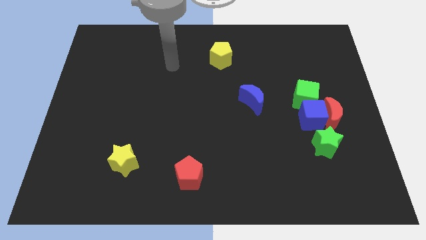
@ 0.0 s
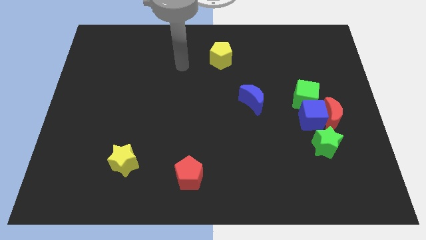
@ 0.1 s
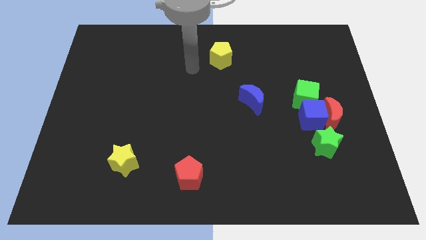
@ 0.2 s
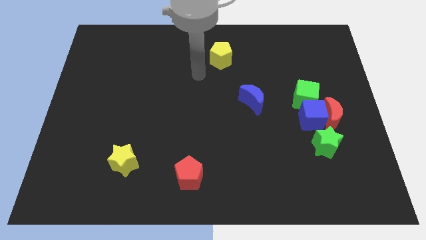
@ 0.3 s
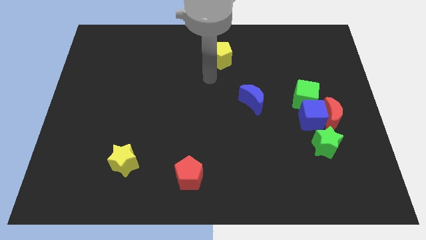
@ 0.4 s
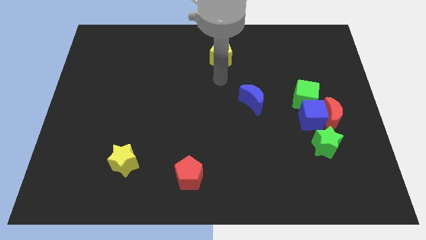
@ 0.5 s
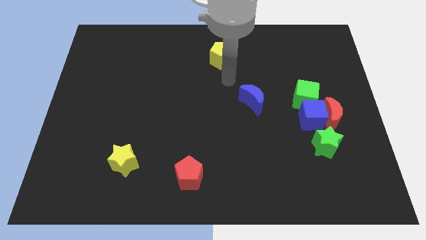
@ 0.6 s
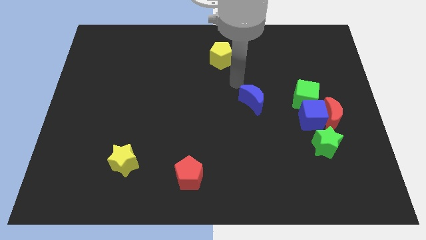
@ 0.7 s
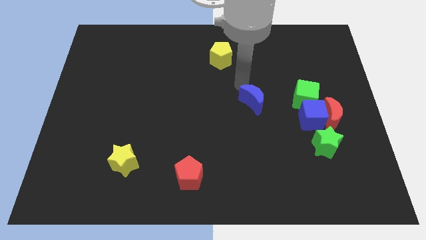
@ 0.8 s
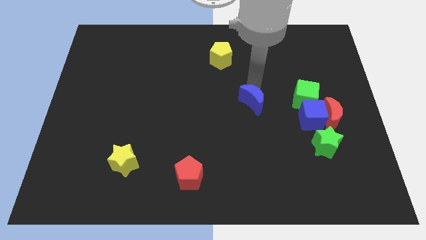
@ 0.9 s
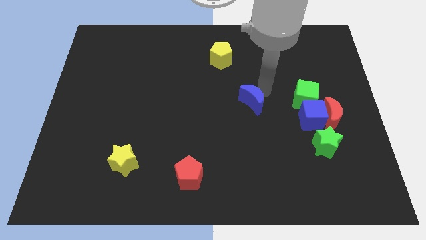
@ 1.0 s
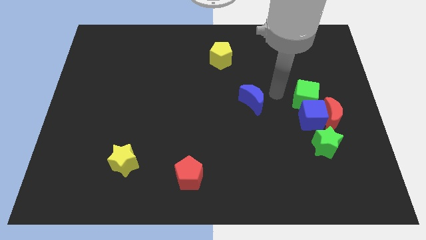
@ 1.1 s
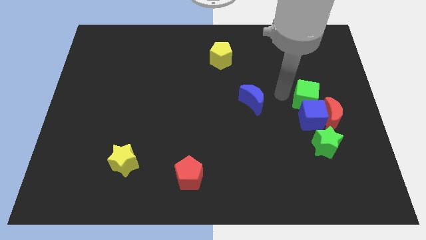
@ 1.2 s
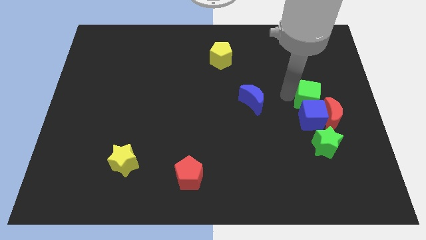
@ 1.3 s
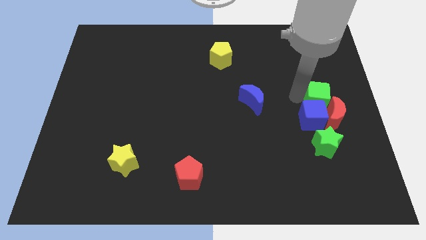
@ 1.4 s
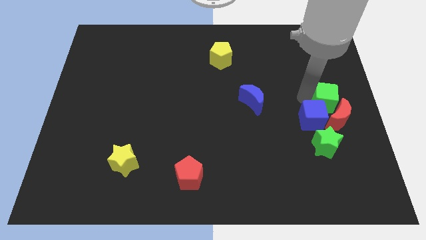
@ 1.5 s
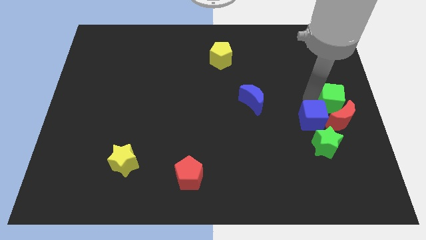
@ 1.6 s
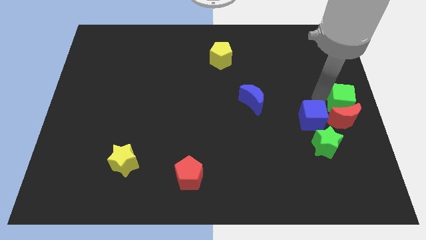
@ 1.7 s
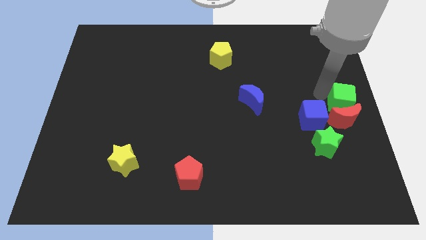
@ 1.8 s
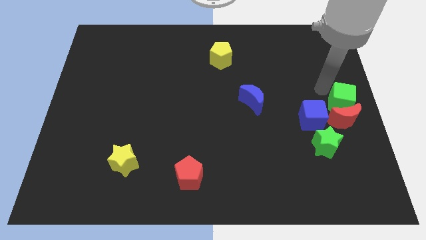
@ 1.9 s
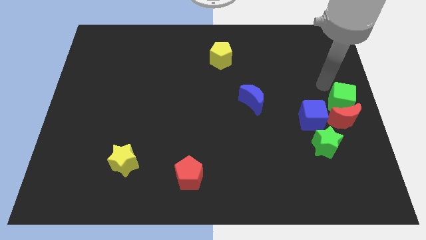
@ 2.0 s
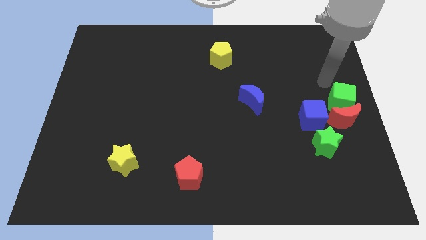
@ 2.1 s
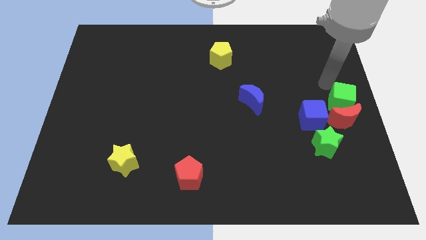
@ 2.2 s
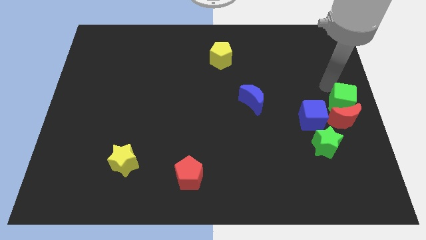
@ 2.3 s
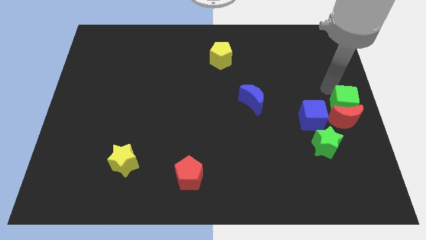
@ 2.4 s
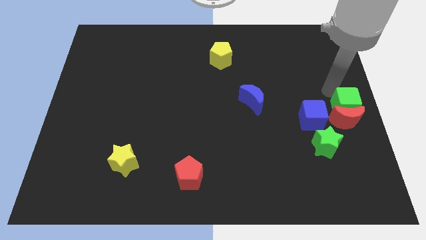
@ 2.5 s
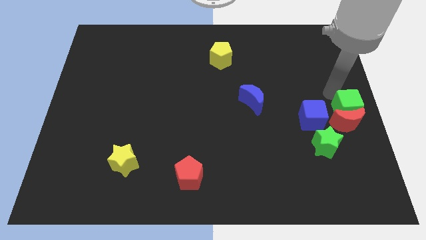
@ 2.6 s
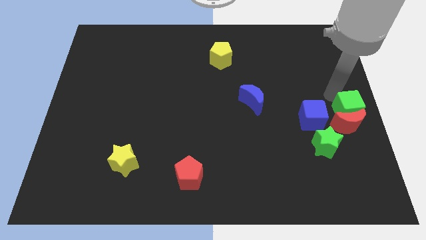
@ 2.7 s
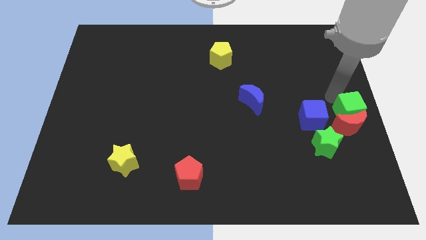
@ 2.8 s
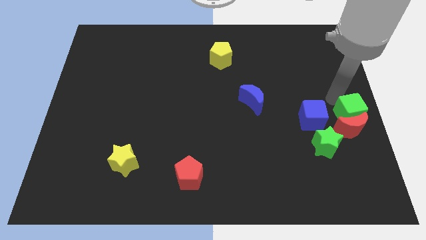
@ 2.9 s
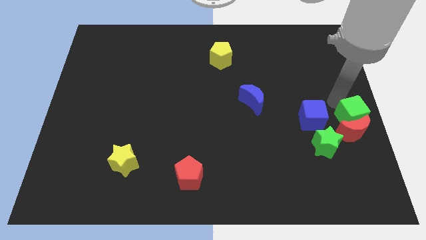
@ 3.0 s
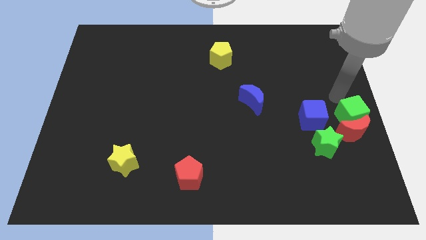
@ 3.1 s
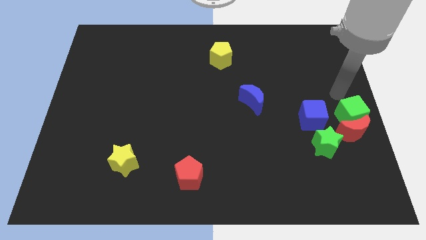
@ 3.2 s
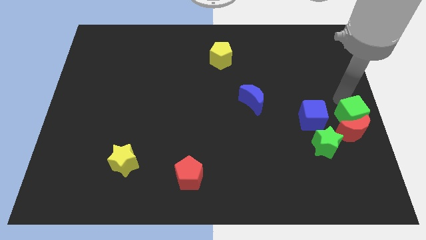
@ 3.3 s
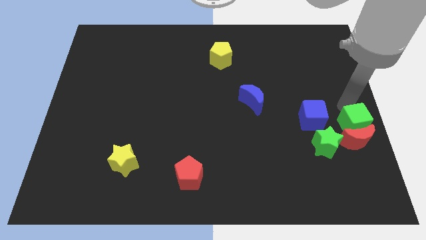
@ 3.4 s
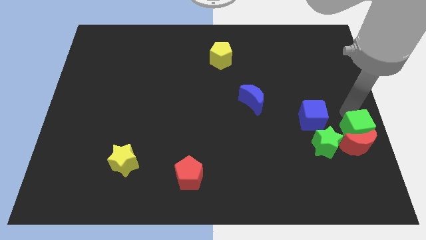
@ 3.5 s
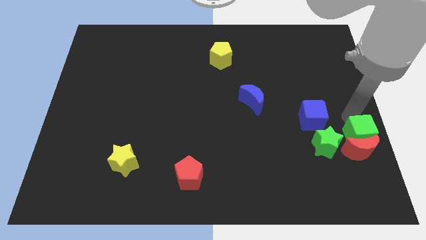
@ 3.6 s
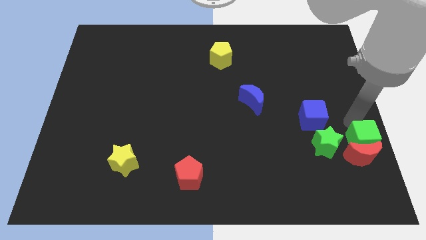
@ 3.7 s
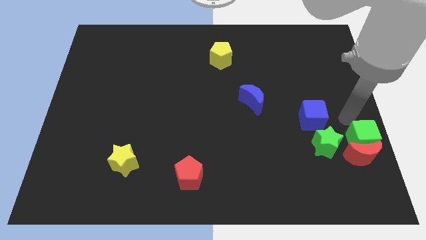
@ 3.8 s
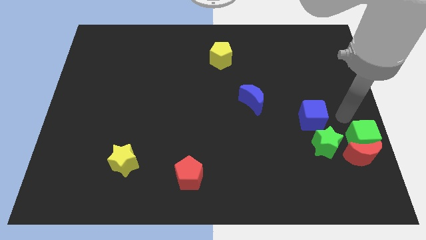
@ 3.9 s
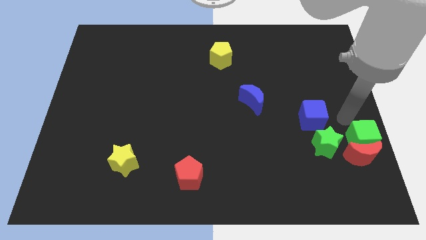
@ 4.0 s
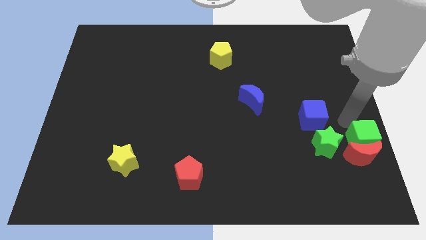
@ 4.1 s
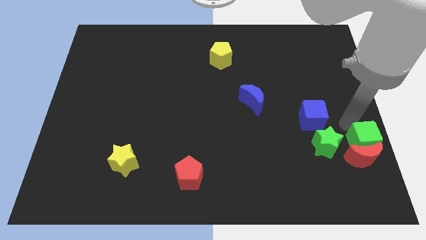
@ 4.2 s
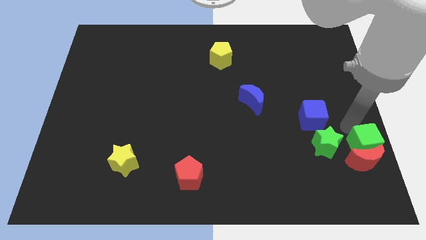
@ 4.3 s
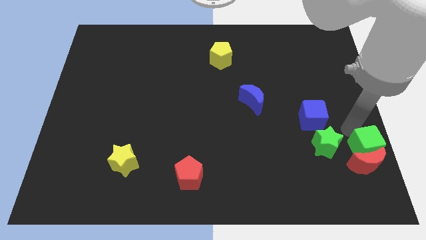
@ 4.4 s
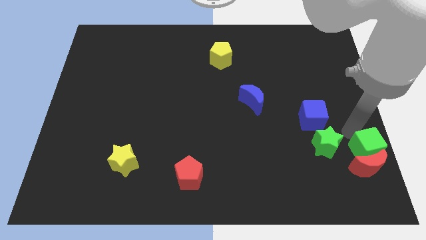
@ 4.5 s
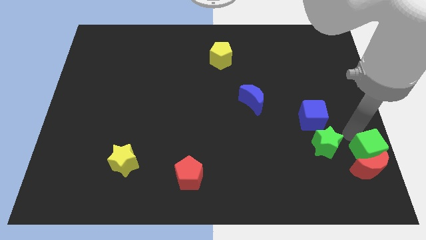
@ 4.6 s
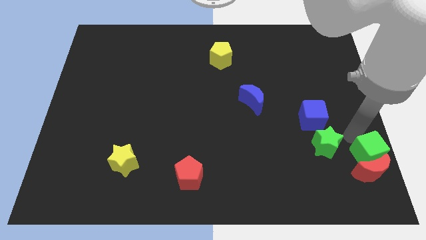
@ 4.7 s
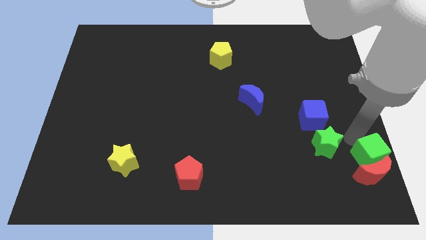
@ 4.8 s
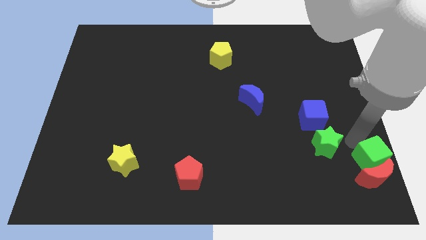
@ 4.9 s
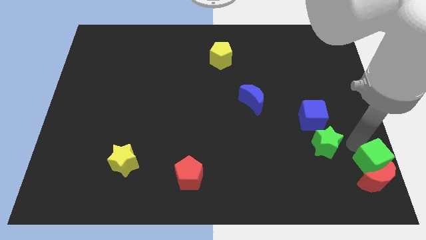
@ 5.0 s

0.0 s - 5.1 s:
push the green cube to the bottom right of the board

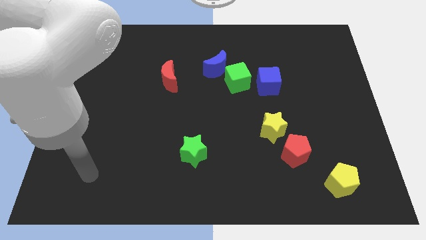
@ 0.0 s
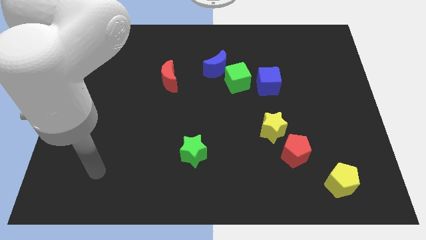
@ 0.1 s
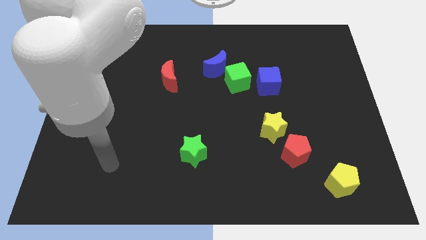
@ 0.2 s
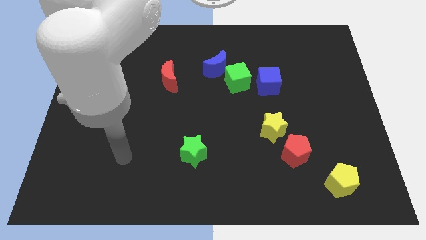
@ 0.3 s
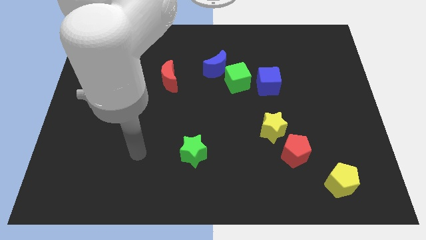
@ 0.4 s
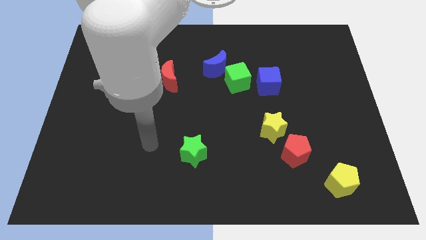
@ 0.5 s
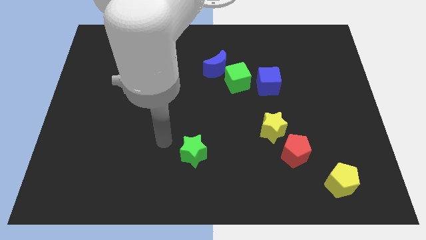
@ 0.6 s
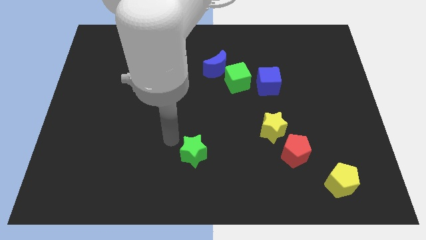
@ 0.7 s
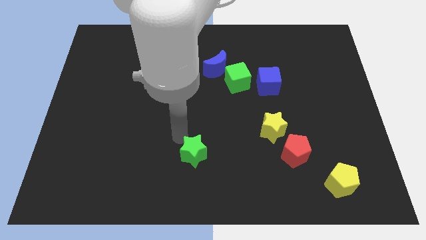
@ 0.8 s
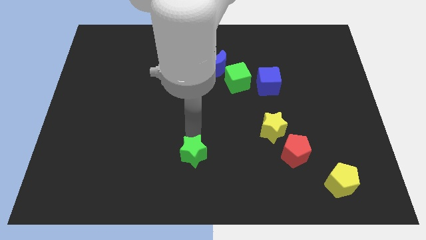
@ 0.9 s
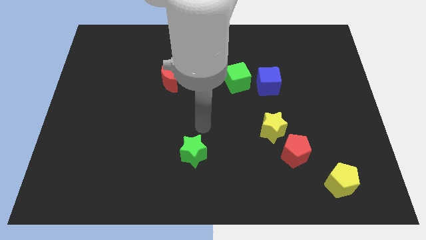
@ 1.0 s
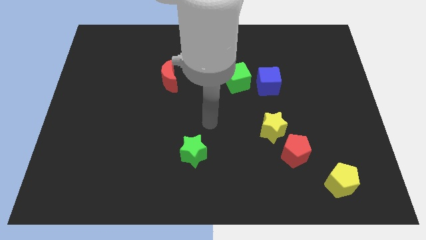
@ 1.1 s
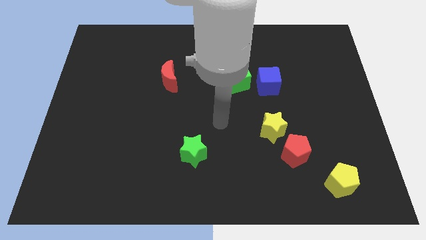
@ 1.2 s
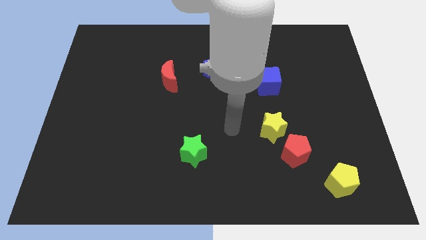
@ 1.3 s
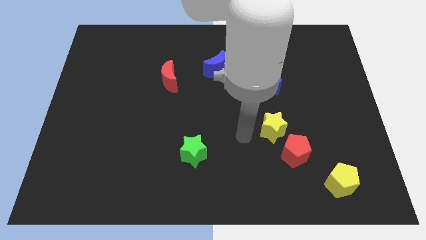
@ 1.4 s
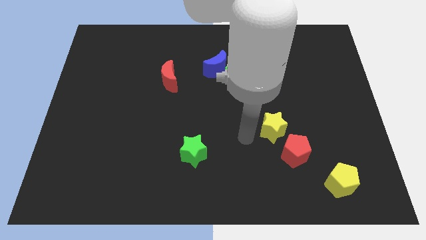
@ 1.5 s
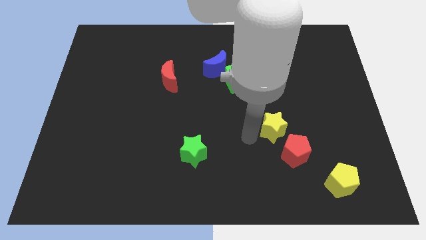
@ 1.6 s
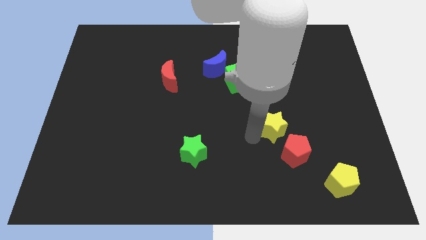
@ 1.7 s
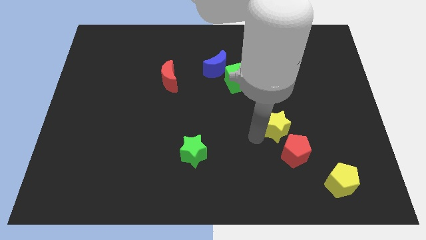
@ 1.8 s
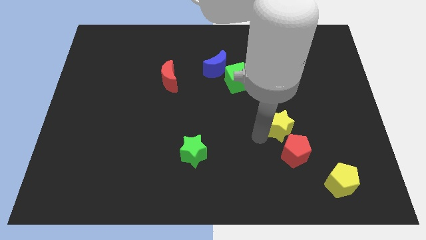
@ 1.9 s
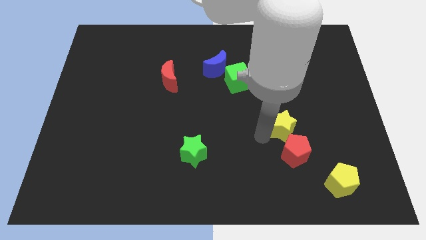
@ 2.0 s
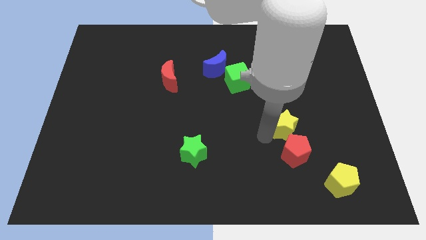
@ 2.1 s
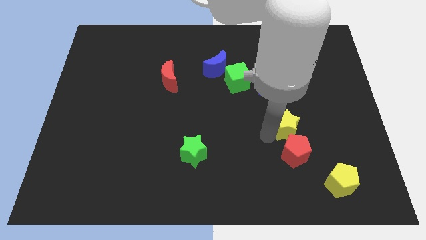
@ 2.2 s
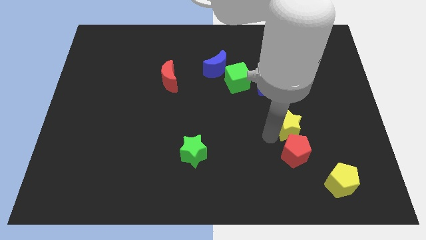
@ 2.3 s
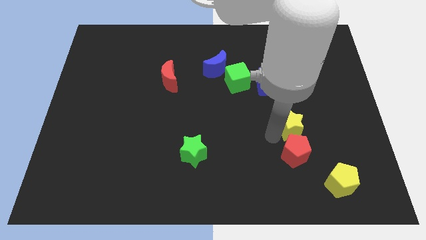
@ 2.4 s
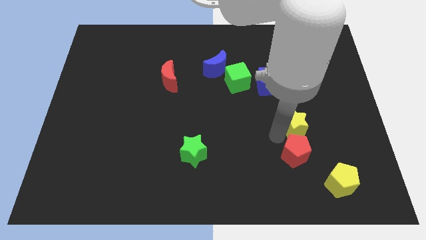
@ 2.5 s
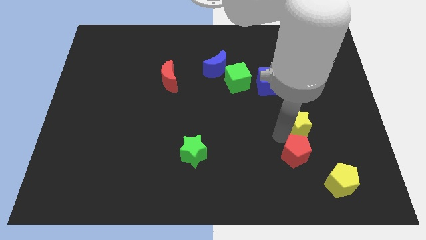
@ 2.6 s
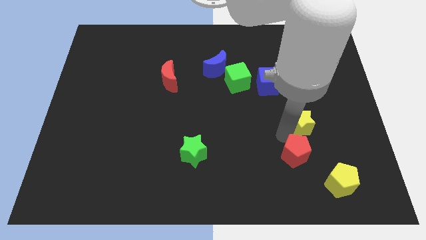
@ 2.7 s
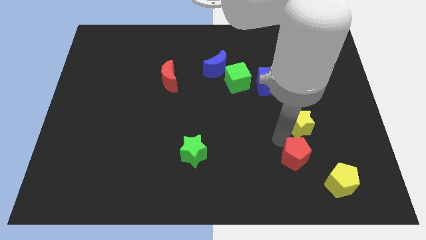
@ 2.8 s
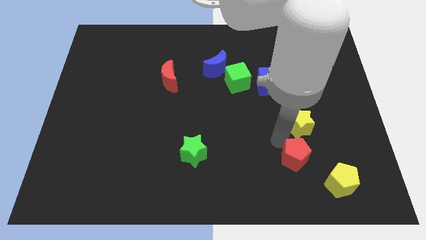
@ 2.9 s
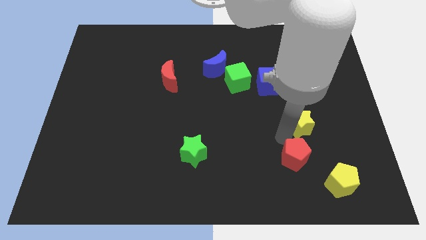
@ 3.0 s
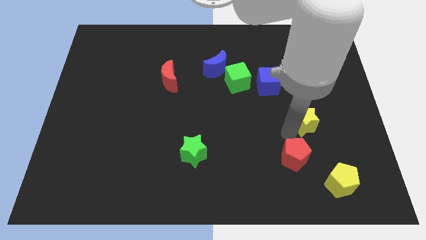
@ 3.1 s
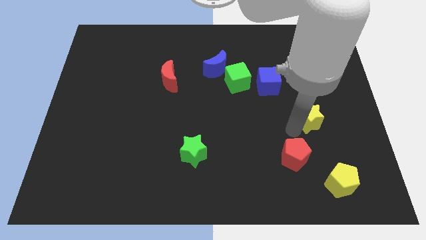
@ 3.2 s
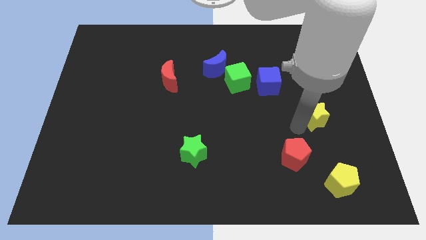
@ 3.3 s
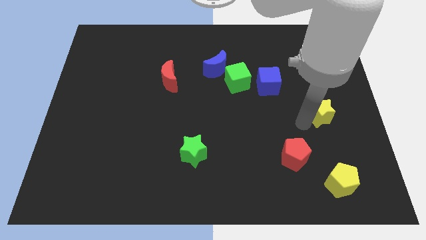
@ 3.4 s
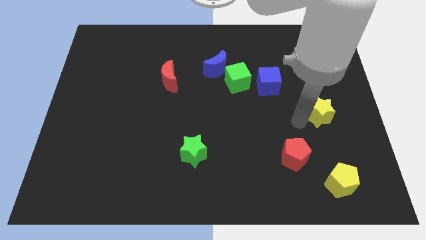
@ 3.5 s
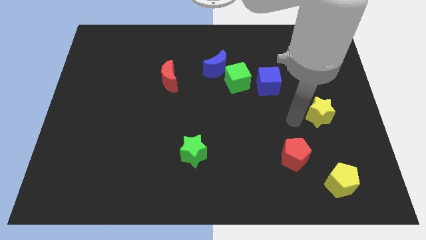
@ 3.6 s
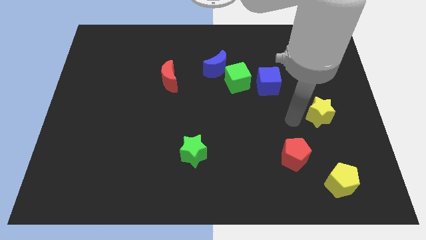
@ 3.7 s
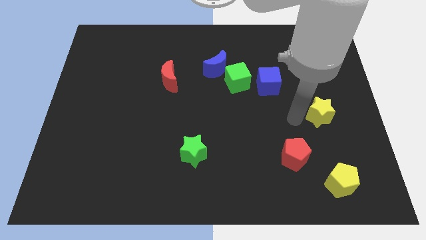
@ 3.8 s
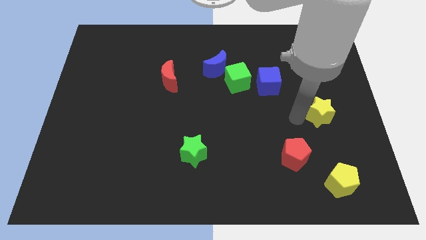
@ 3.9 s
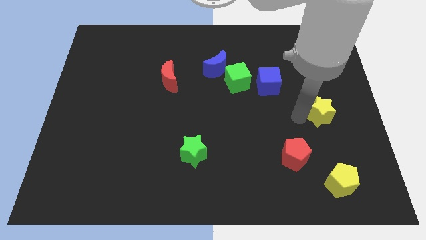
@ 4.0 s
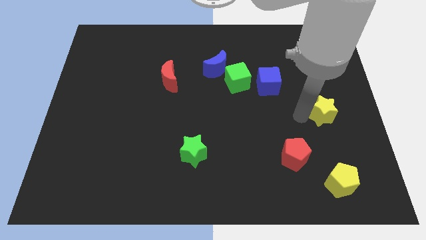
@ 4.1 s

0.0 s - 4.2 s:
push the yellow star to the right side
